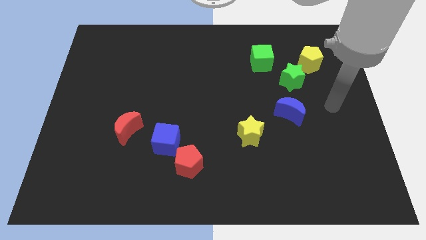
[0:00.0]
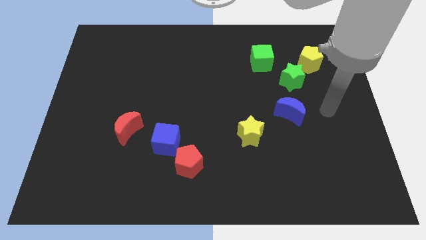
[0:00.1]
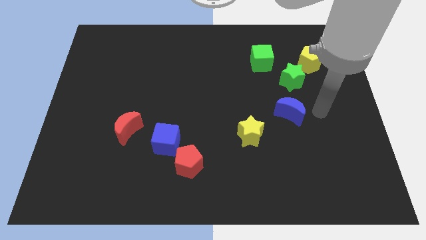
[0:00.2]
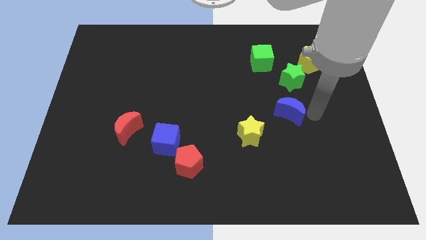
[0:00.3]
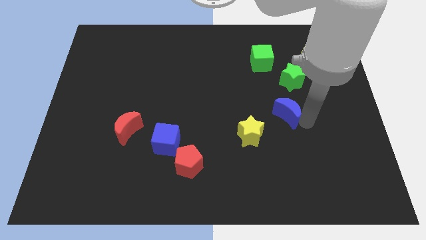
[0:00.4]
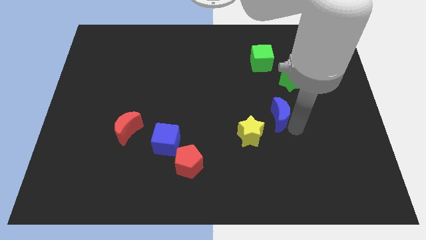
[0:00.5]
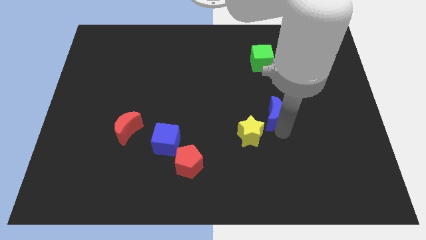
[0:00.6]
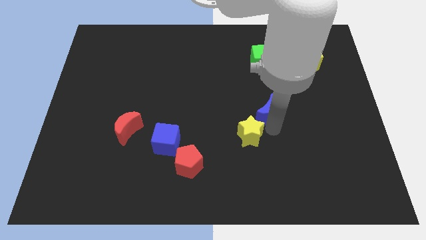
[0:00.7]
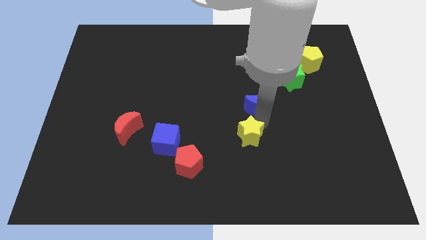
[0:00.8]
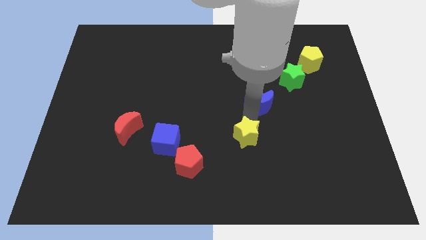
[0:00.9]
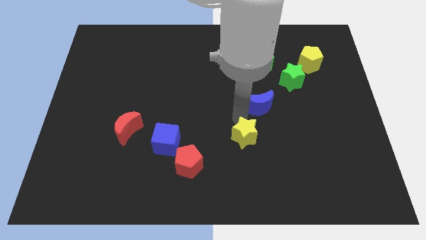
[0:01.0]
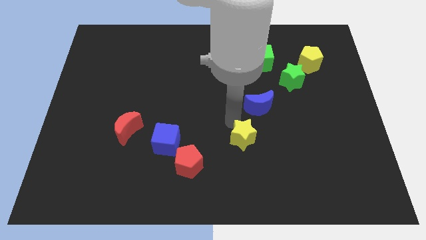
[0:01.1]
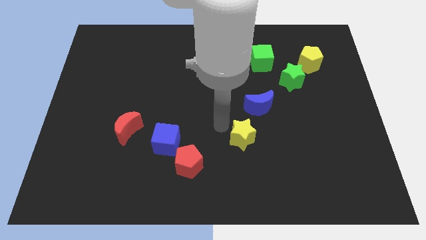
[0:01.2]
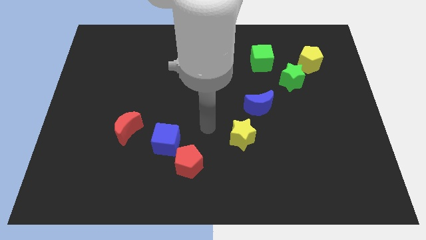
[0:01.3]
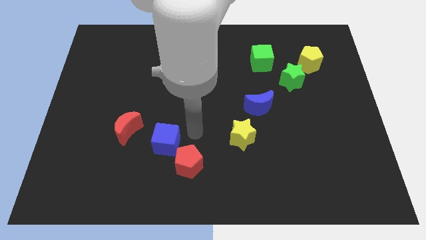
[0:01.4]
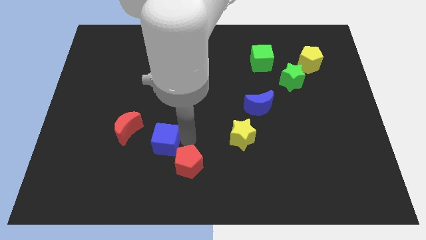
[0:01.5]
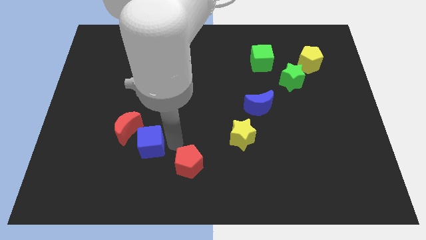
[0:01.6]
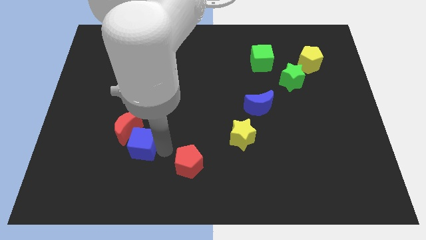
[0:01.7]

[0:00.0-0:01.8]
separate the red pentagon from the blue cube

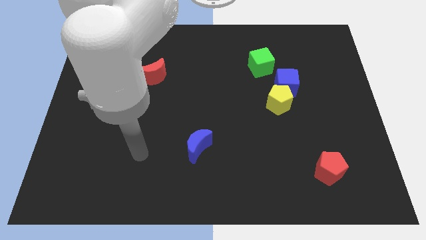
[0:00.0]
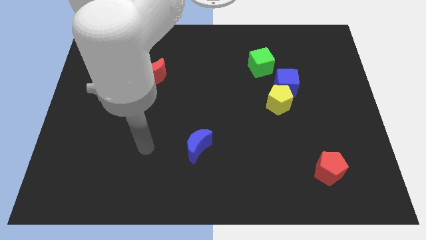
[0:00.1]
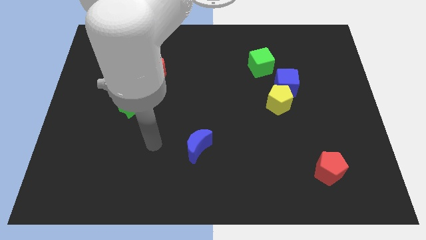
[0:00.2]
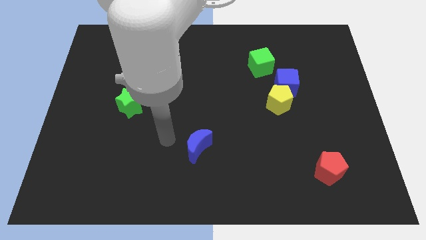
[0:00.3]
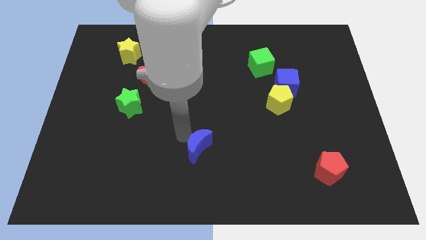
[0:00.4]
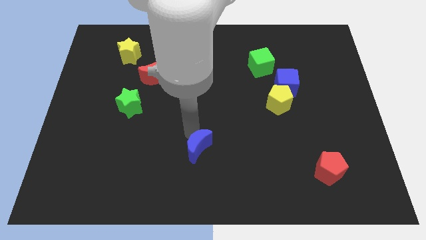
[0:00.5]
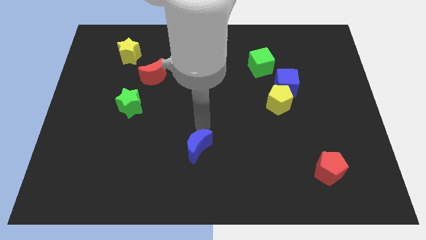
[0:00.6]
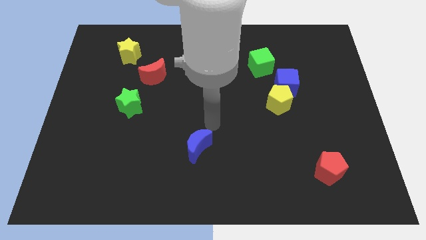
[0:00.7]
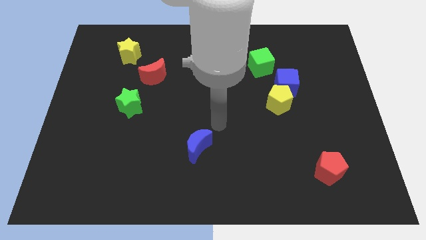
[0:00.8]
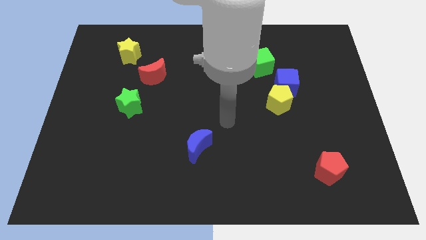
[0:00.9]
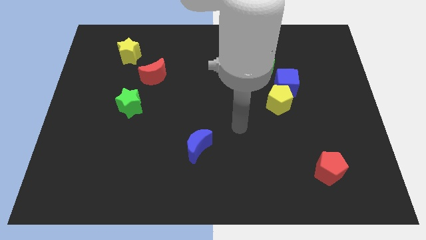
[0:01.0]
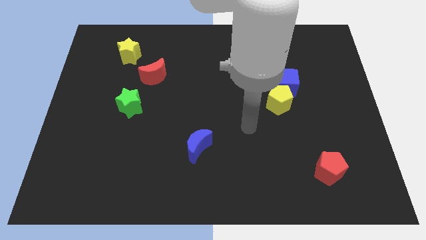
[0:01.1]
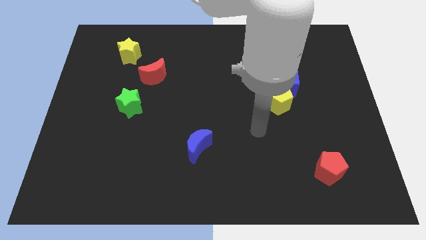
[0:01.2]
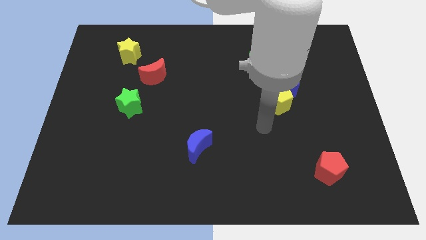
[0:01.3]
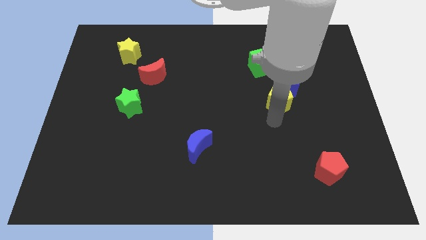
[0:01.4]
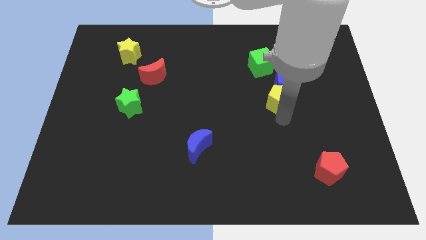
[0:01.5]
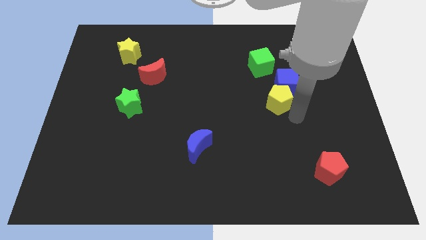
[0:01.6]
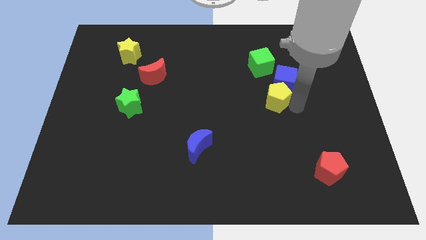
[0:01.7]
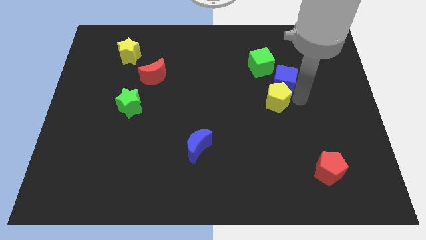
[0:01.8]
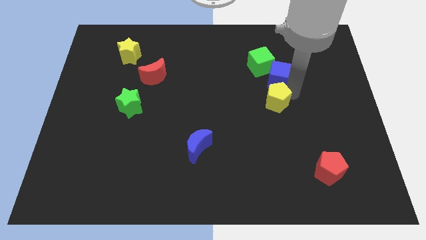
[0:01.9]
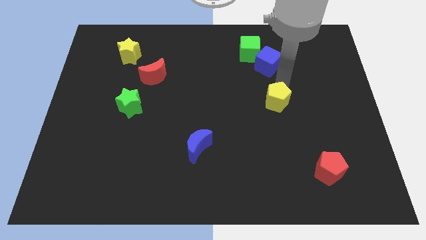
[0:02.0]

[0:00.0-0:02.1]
pull the yellow pentagon apart from the blue cube

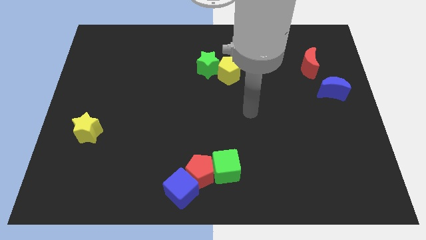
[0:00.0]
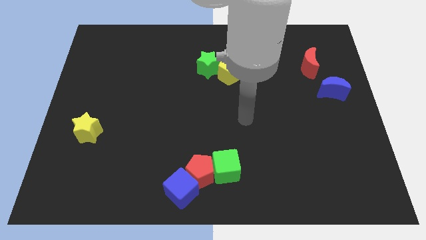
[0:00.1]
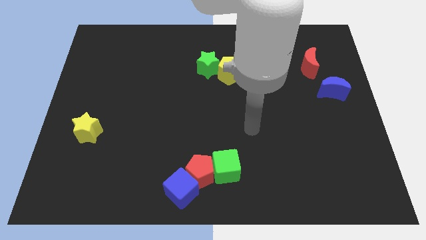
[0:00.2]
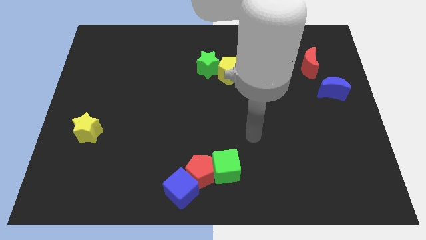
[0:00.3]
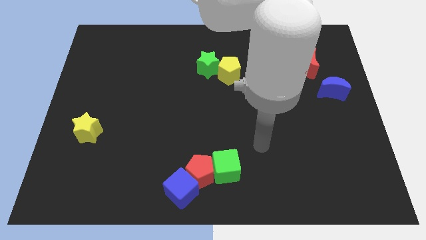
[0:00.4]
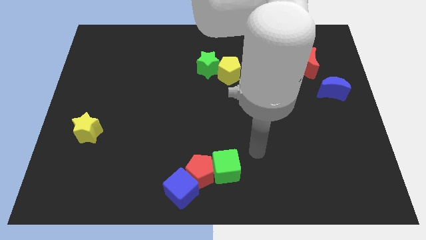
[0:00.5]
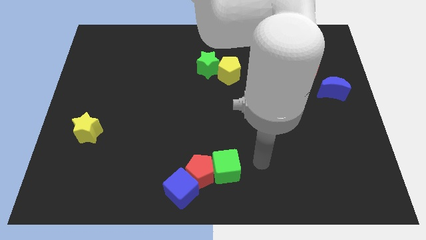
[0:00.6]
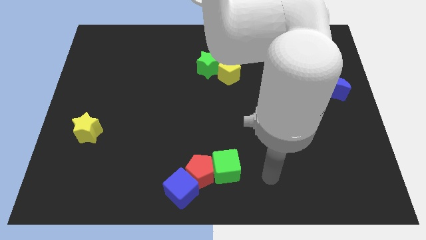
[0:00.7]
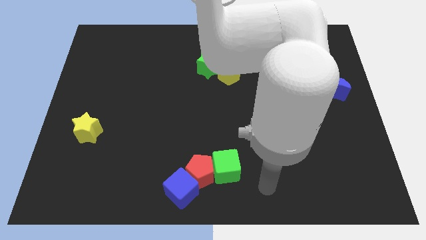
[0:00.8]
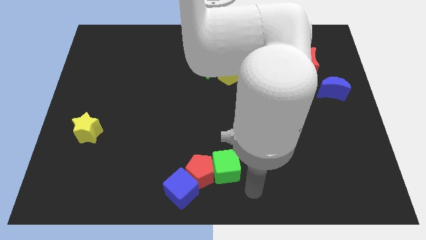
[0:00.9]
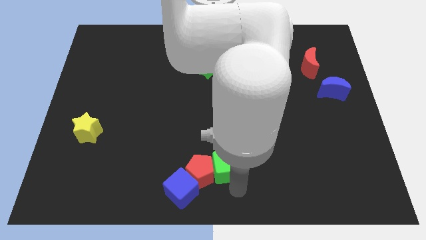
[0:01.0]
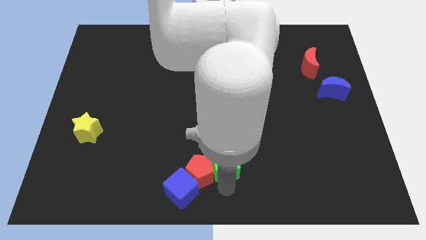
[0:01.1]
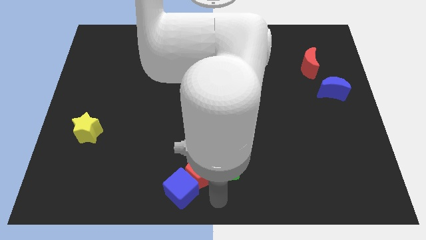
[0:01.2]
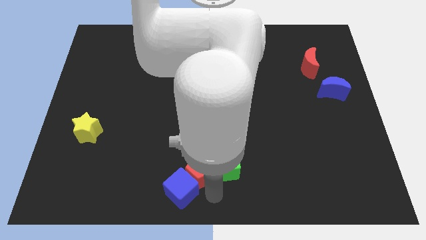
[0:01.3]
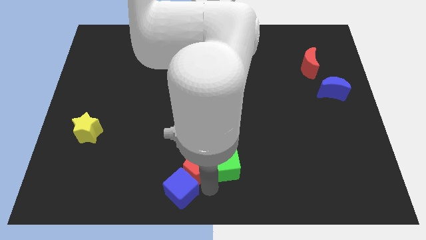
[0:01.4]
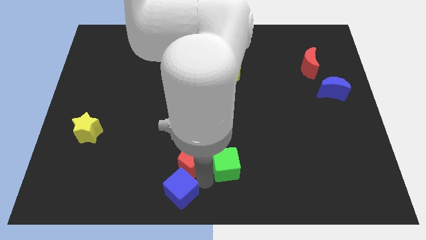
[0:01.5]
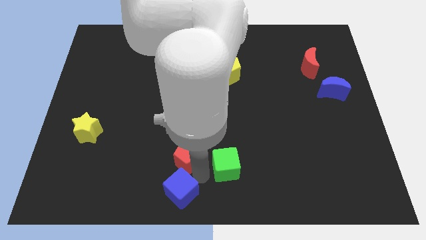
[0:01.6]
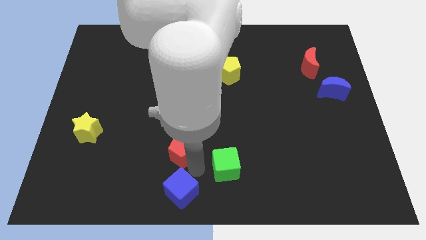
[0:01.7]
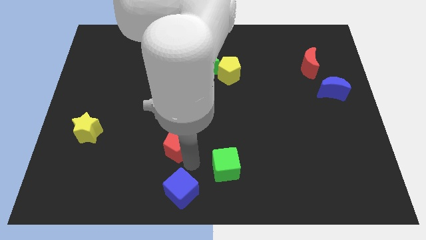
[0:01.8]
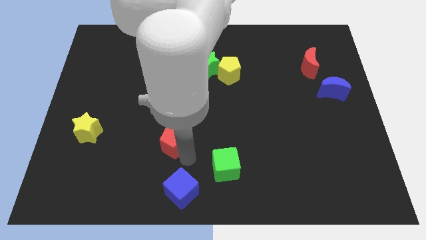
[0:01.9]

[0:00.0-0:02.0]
move the red pentagon away from the blue cube and green cube

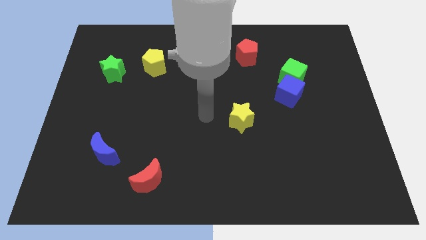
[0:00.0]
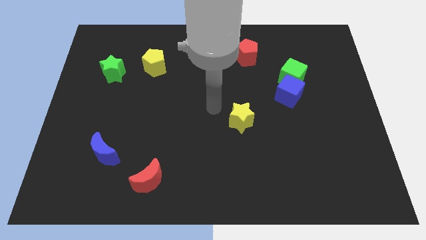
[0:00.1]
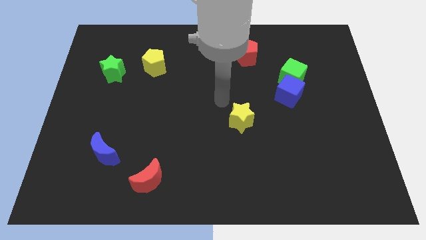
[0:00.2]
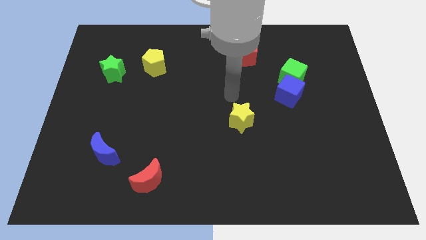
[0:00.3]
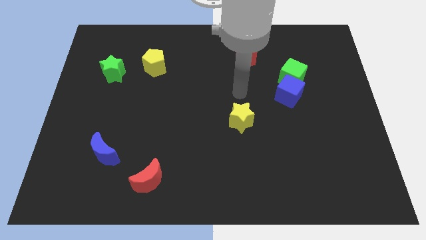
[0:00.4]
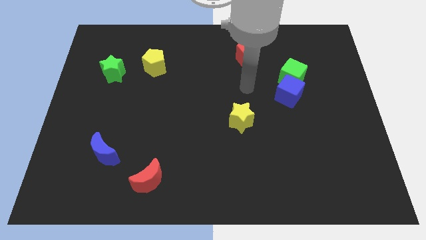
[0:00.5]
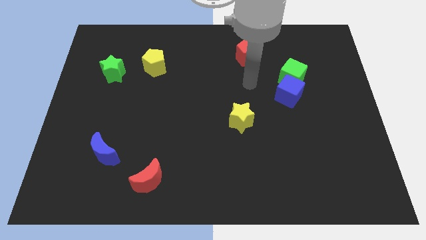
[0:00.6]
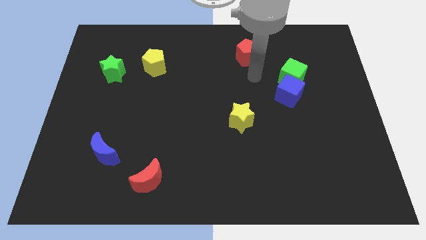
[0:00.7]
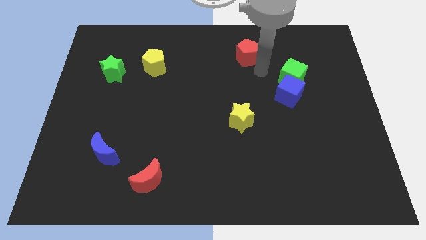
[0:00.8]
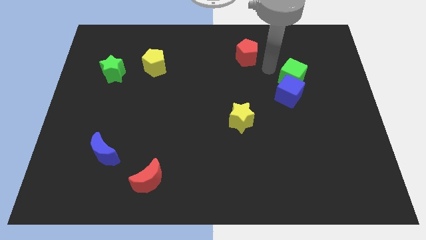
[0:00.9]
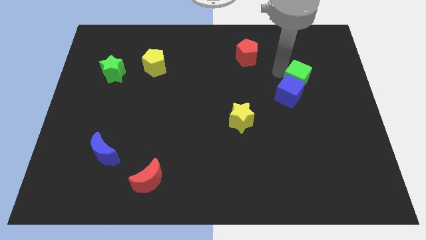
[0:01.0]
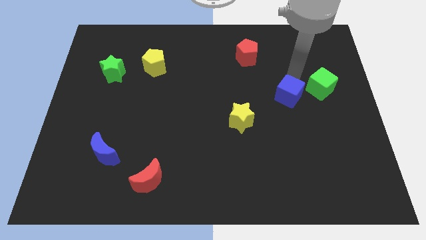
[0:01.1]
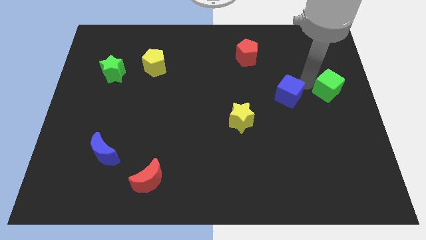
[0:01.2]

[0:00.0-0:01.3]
move the blue cube away from the green cube

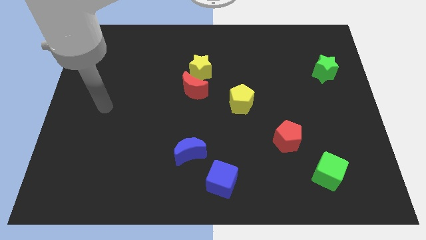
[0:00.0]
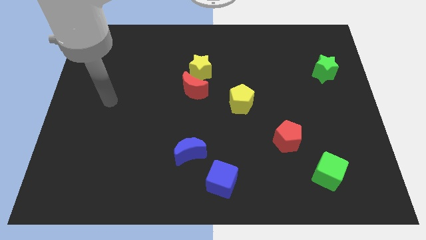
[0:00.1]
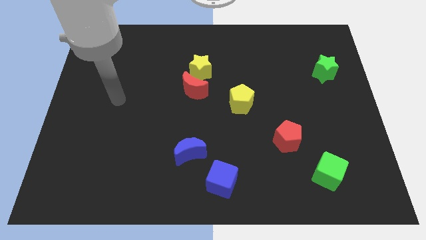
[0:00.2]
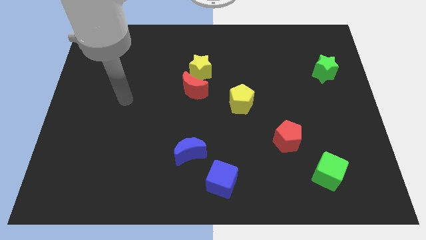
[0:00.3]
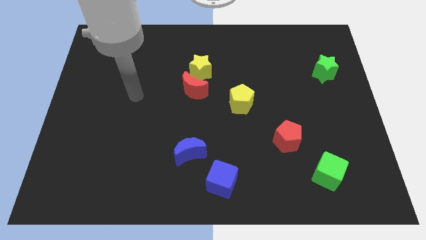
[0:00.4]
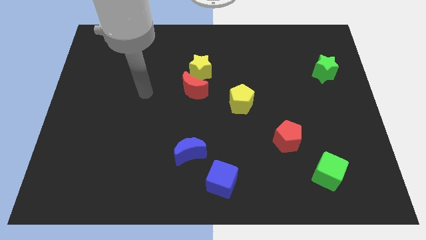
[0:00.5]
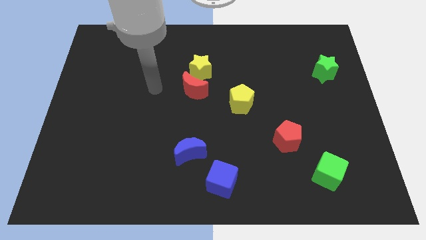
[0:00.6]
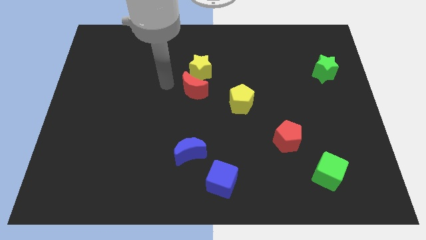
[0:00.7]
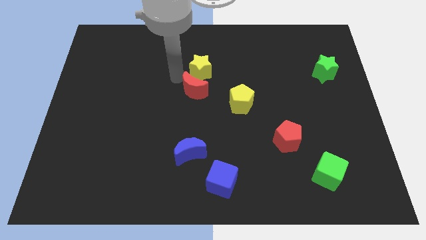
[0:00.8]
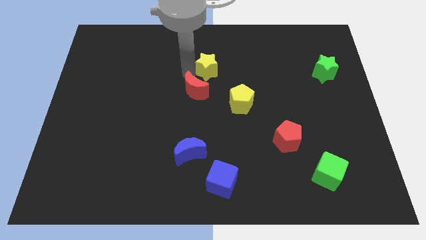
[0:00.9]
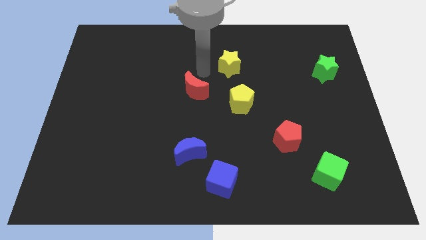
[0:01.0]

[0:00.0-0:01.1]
pull the red moon apart from the yellow star

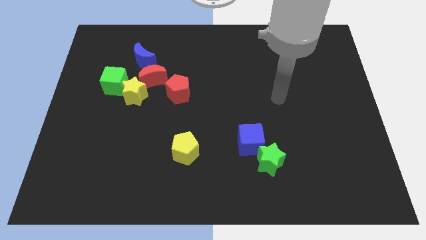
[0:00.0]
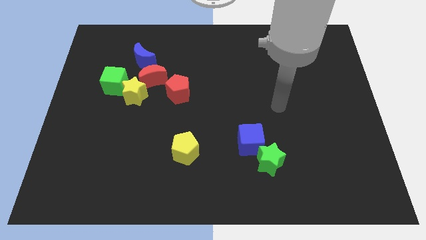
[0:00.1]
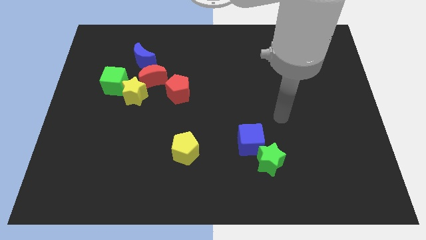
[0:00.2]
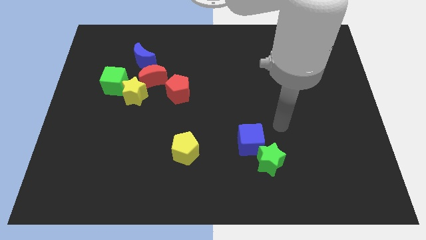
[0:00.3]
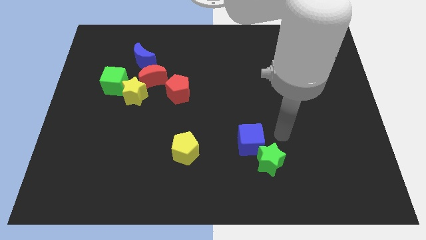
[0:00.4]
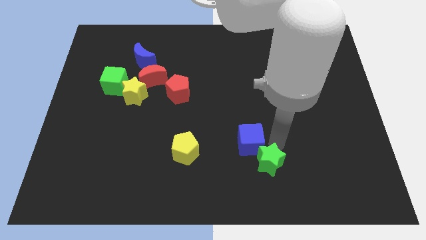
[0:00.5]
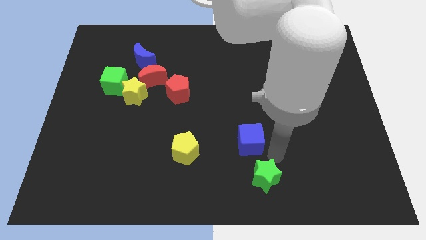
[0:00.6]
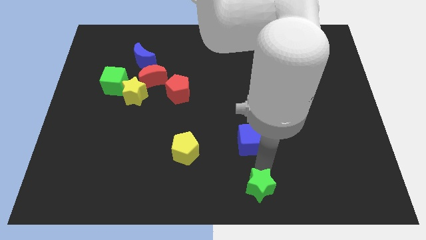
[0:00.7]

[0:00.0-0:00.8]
separate the blue cube from the green star
